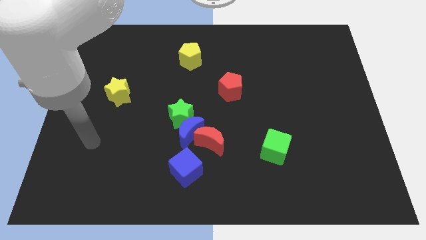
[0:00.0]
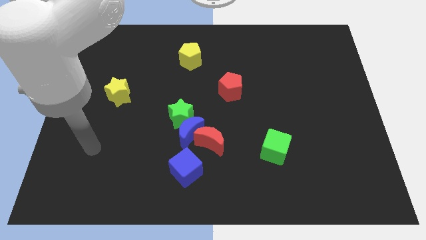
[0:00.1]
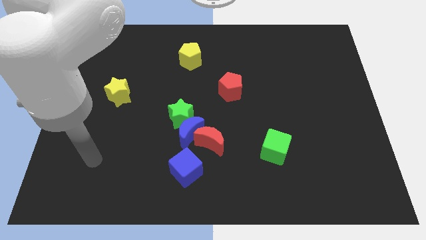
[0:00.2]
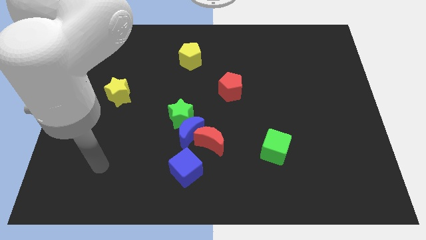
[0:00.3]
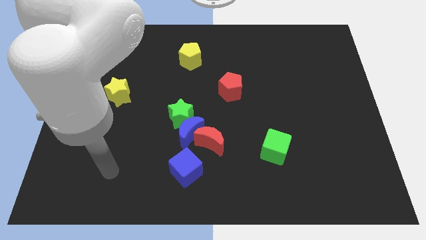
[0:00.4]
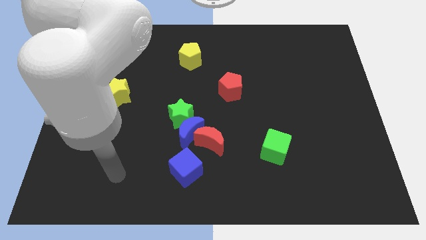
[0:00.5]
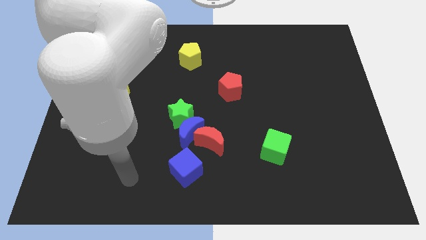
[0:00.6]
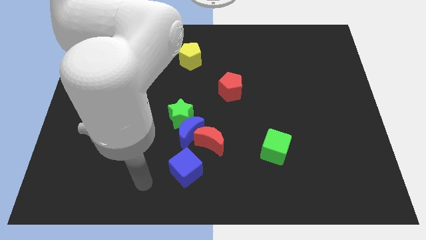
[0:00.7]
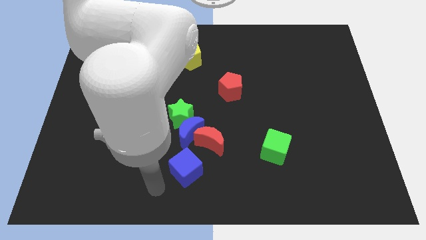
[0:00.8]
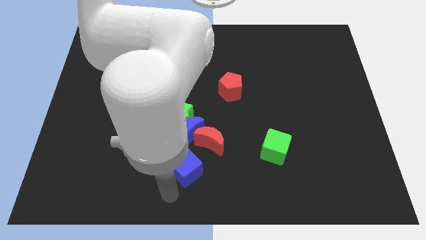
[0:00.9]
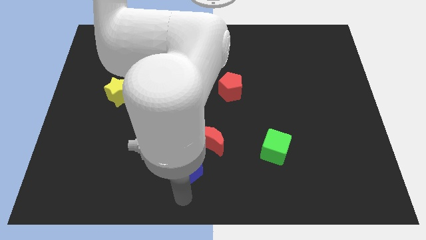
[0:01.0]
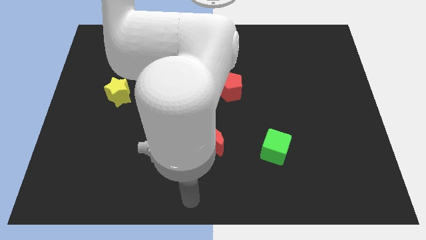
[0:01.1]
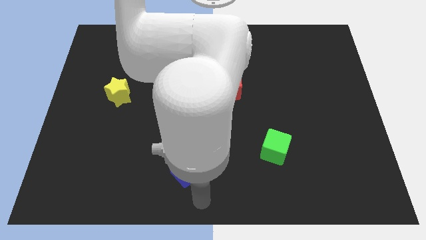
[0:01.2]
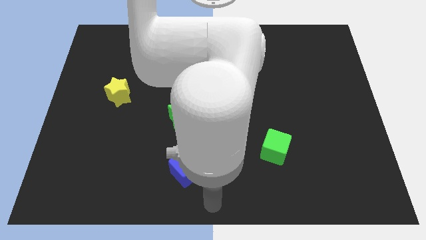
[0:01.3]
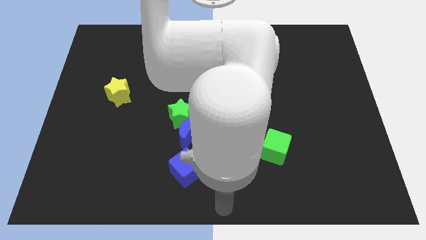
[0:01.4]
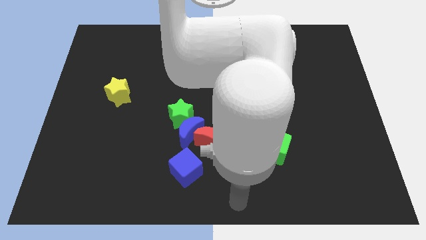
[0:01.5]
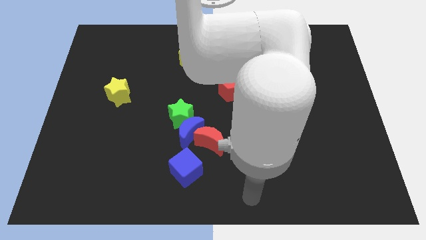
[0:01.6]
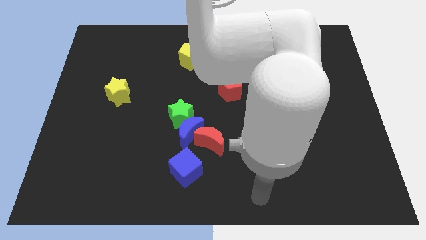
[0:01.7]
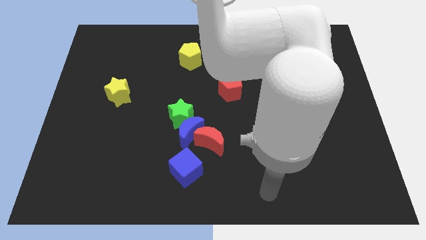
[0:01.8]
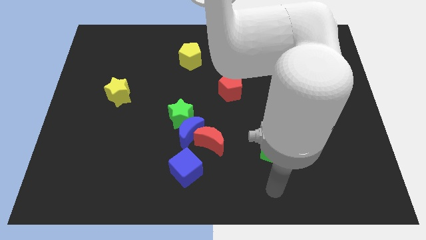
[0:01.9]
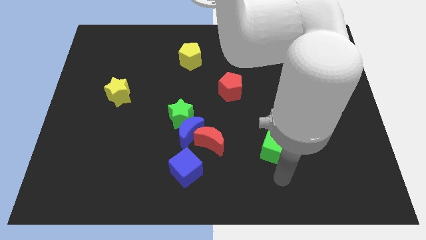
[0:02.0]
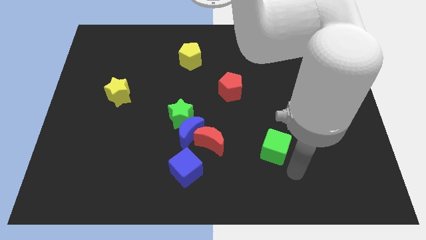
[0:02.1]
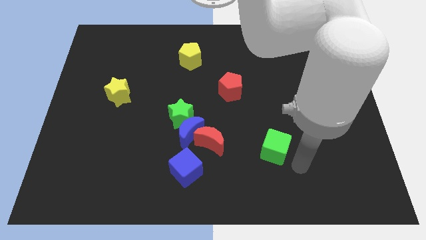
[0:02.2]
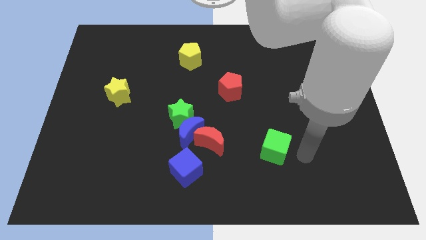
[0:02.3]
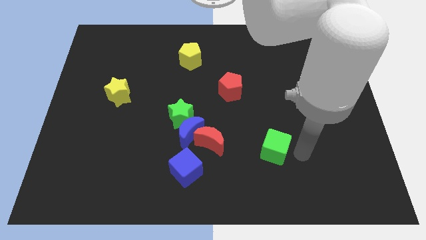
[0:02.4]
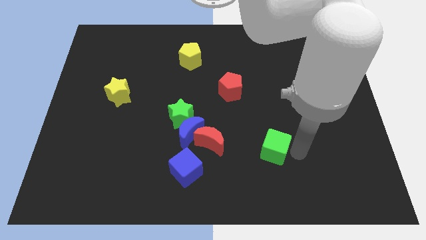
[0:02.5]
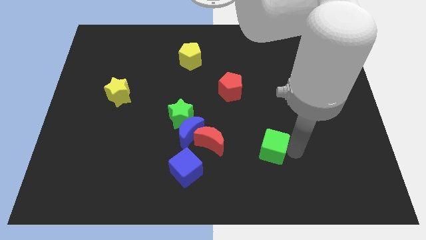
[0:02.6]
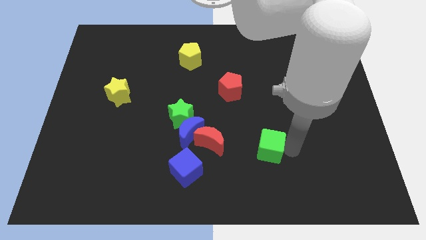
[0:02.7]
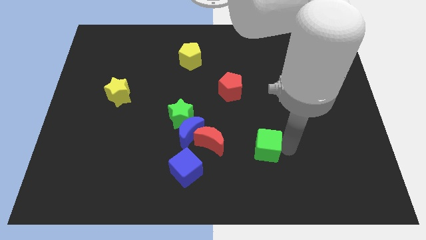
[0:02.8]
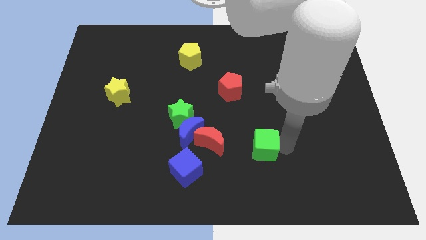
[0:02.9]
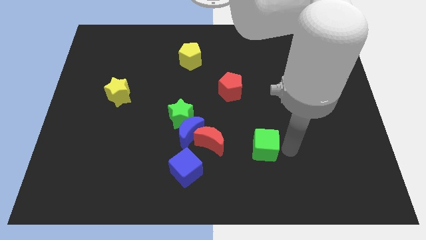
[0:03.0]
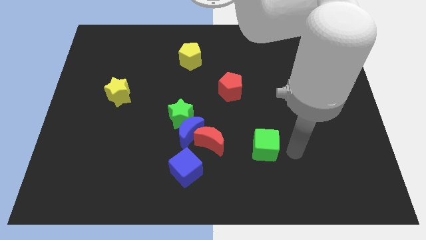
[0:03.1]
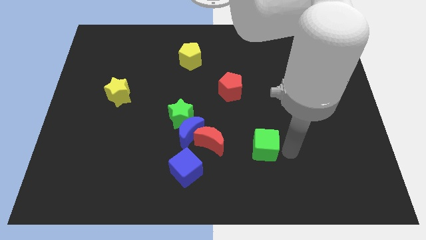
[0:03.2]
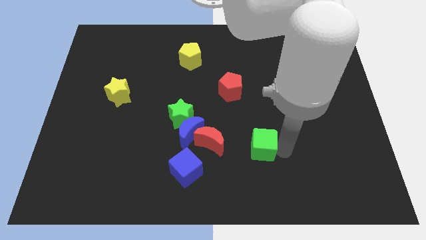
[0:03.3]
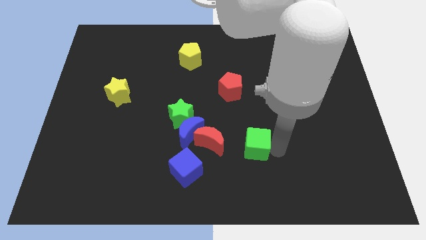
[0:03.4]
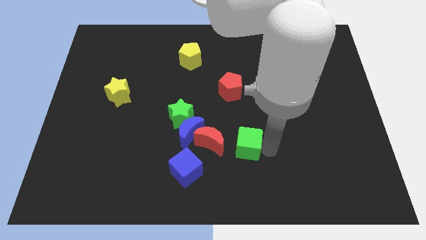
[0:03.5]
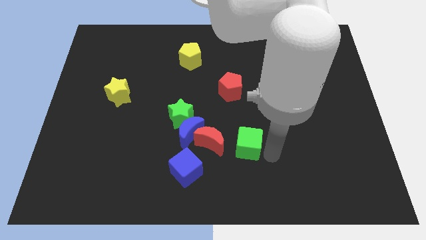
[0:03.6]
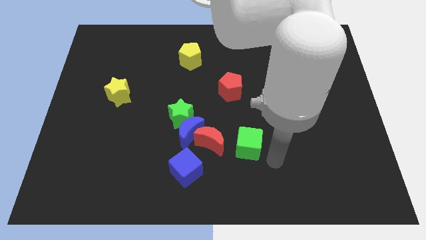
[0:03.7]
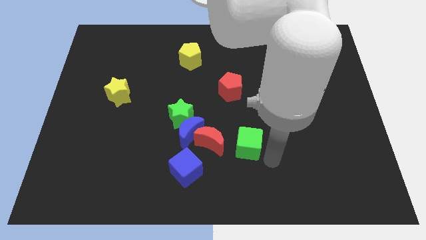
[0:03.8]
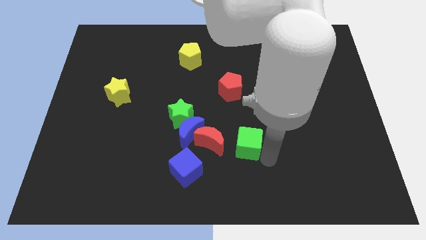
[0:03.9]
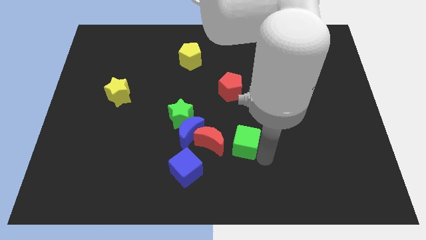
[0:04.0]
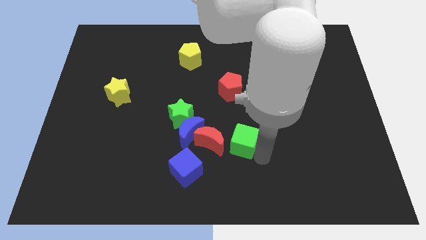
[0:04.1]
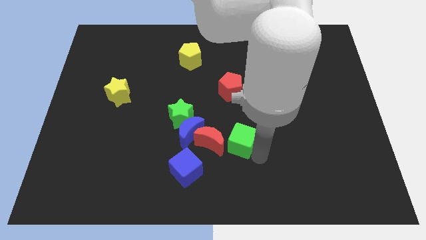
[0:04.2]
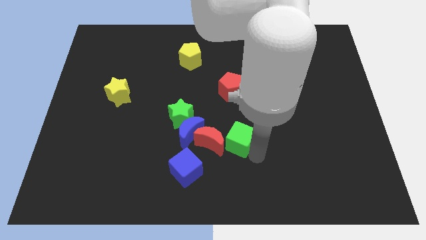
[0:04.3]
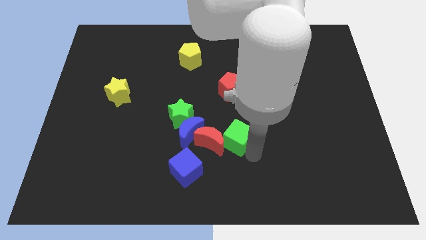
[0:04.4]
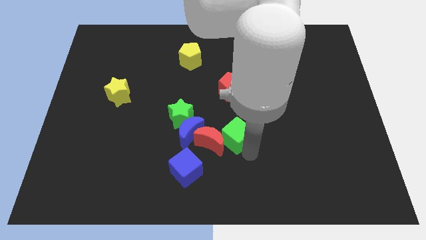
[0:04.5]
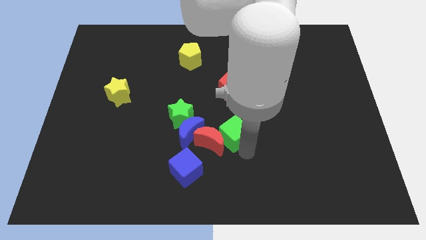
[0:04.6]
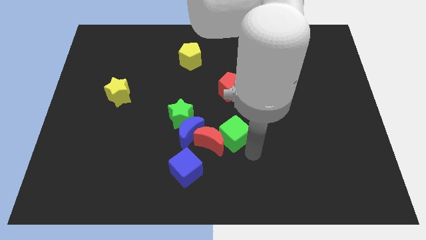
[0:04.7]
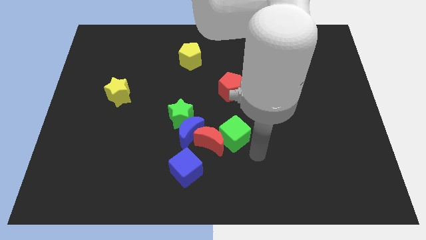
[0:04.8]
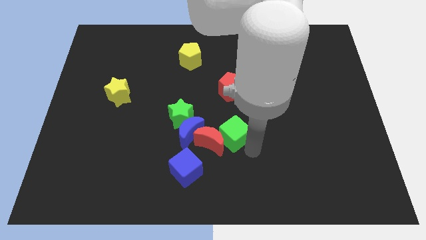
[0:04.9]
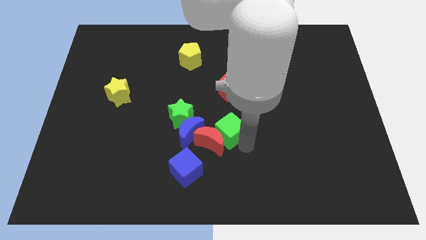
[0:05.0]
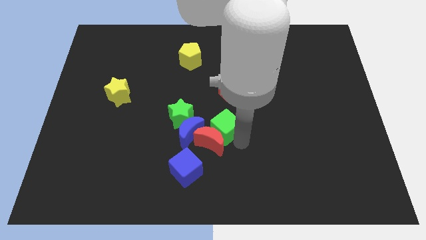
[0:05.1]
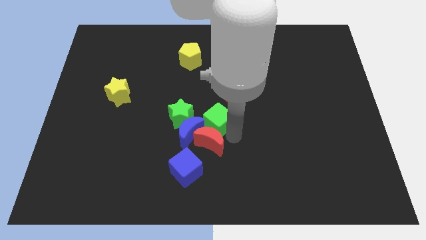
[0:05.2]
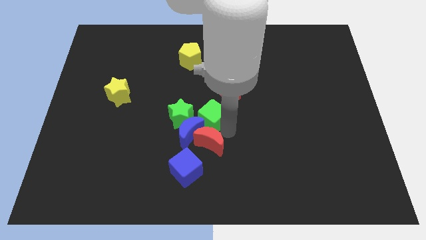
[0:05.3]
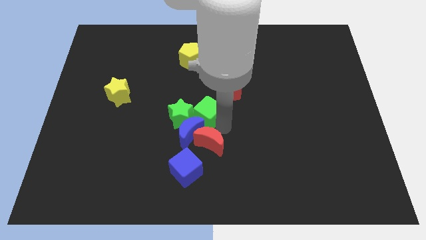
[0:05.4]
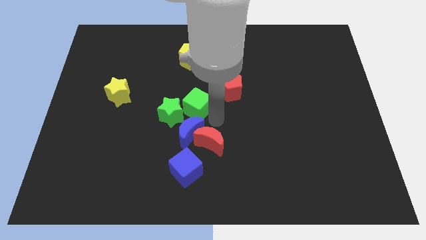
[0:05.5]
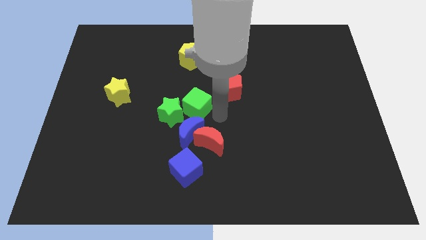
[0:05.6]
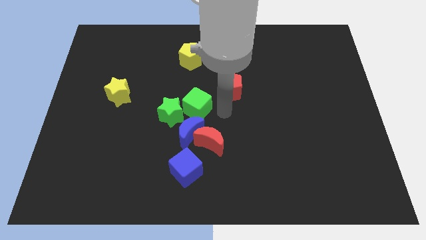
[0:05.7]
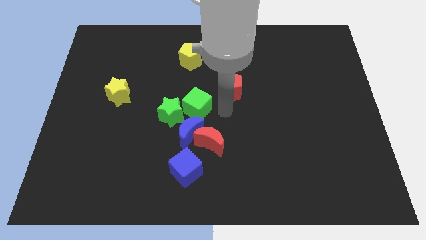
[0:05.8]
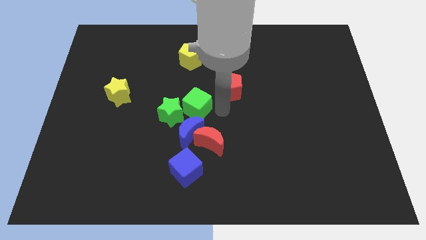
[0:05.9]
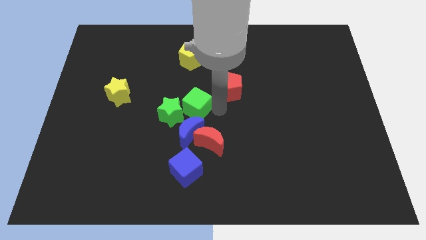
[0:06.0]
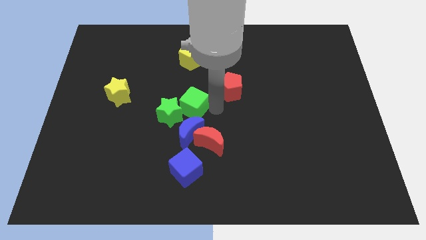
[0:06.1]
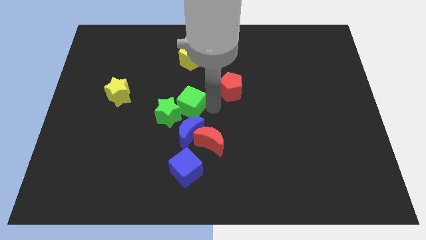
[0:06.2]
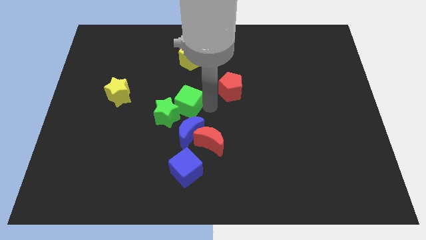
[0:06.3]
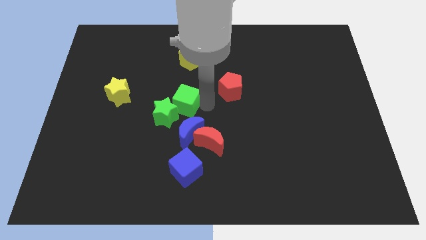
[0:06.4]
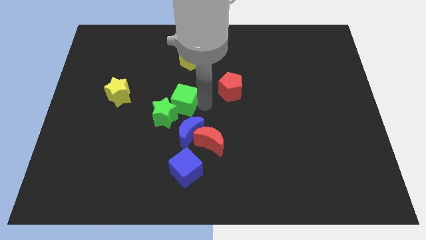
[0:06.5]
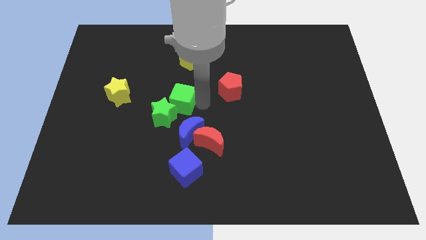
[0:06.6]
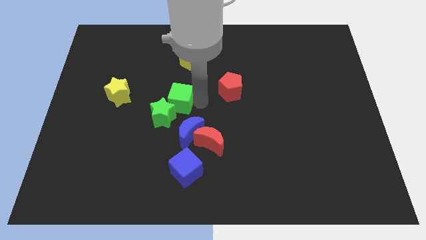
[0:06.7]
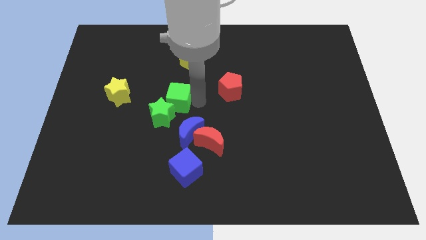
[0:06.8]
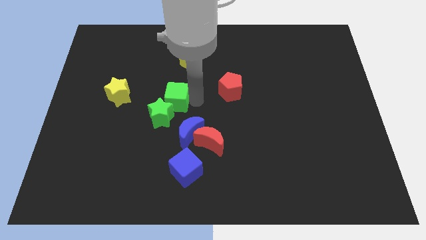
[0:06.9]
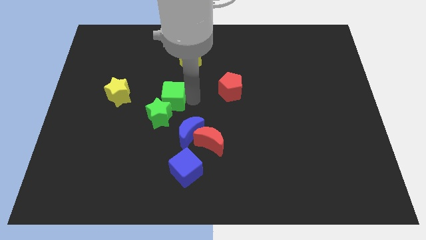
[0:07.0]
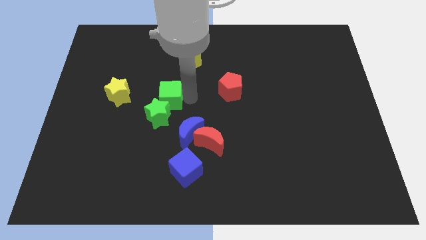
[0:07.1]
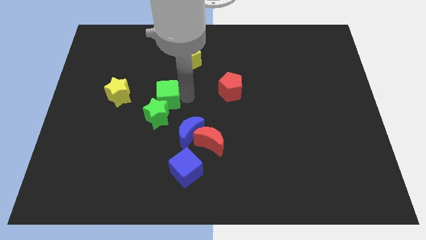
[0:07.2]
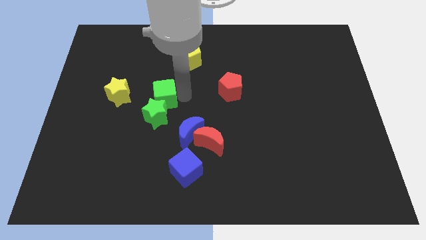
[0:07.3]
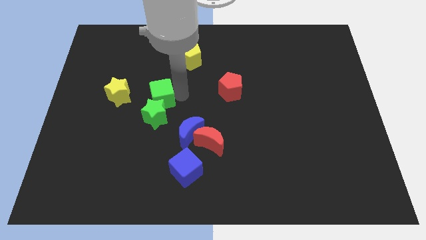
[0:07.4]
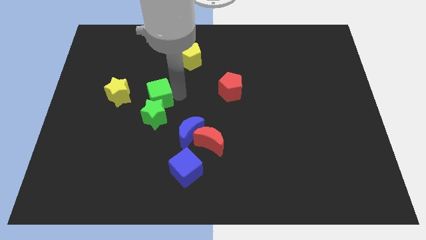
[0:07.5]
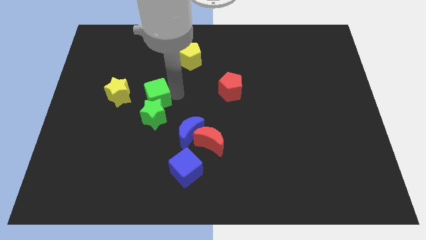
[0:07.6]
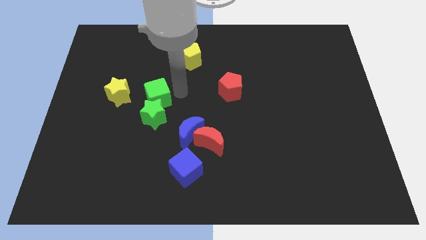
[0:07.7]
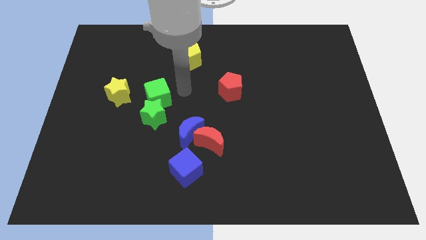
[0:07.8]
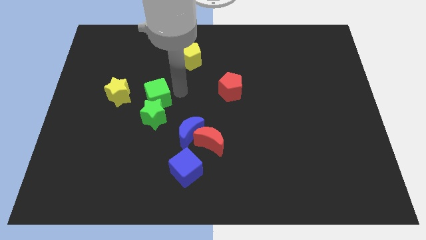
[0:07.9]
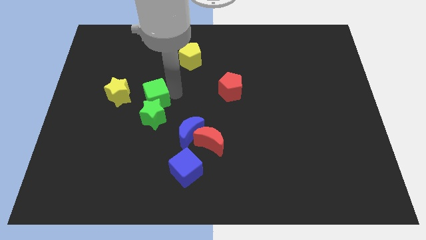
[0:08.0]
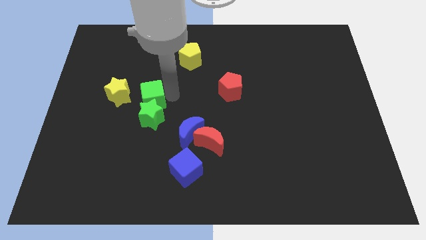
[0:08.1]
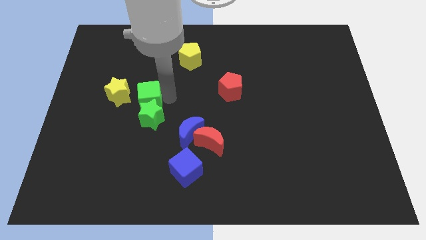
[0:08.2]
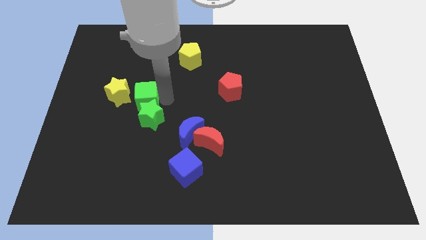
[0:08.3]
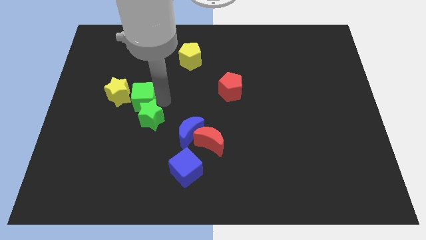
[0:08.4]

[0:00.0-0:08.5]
put the green cube to the yellow star
